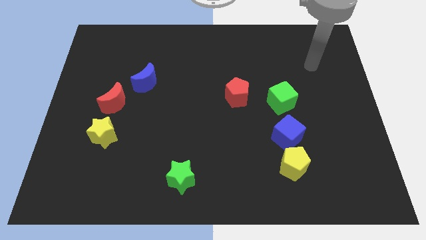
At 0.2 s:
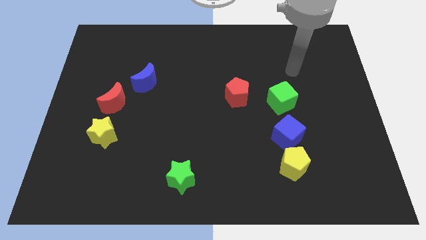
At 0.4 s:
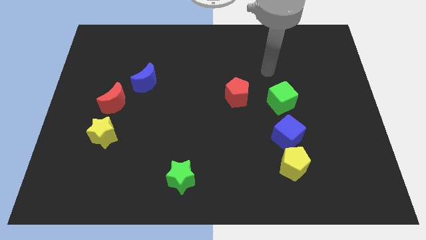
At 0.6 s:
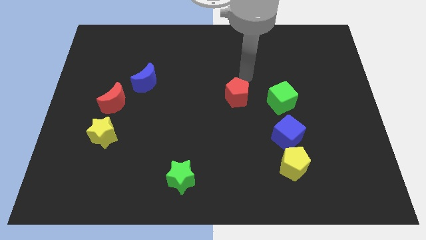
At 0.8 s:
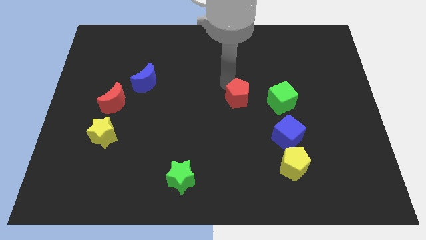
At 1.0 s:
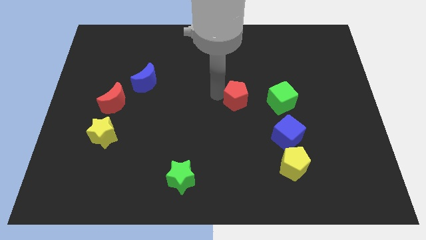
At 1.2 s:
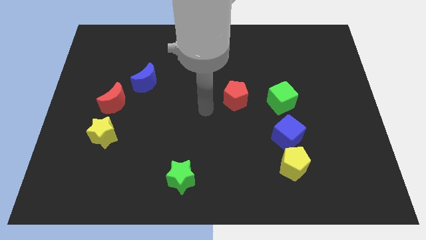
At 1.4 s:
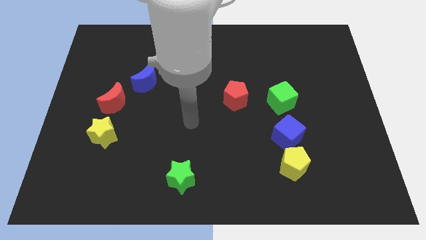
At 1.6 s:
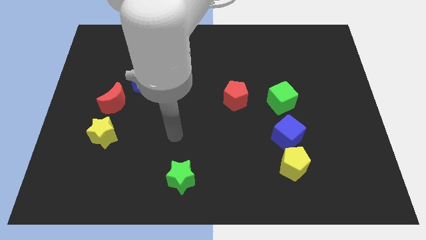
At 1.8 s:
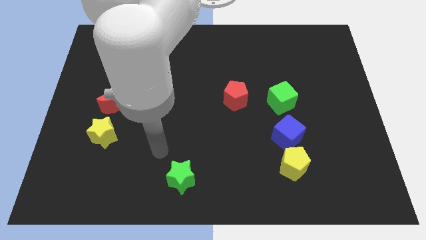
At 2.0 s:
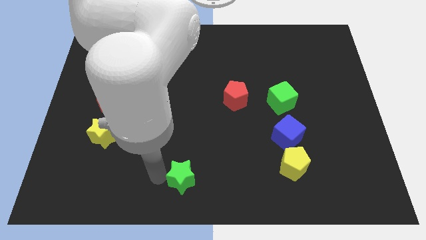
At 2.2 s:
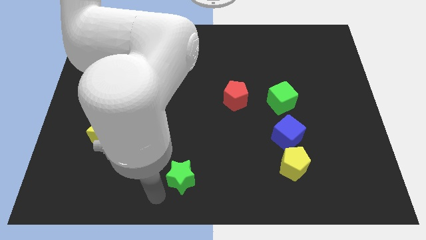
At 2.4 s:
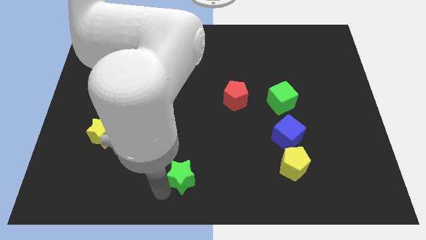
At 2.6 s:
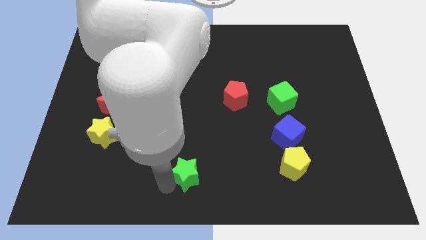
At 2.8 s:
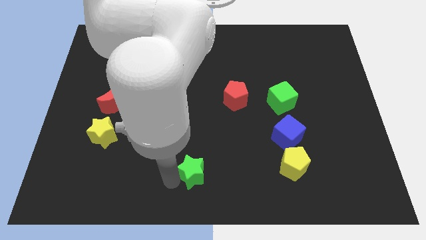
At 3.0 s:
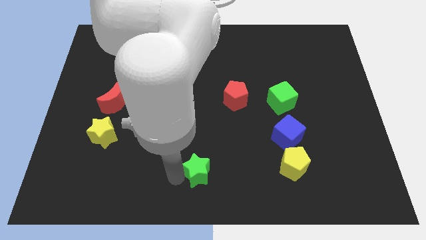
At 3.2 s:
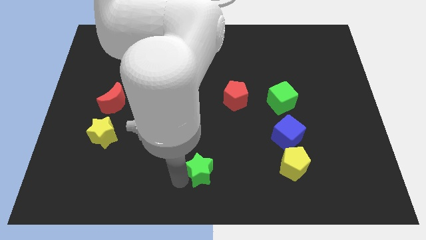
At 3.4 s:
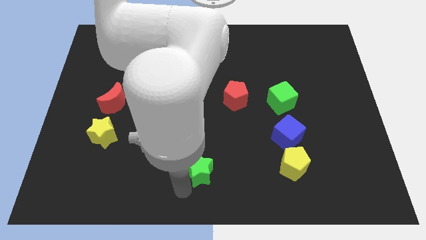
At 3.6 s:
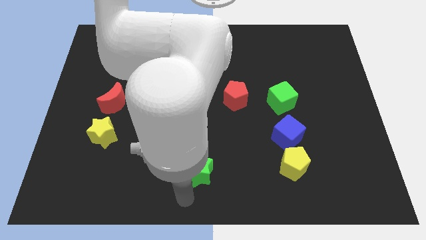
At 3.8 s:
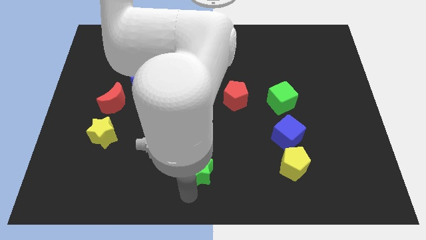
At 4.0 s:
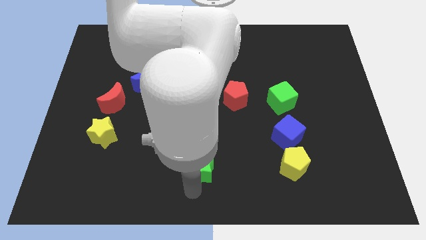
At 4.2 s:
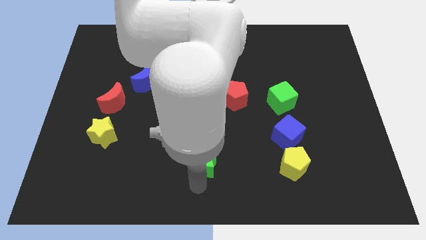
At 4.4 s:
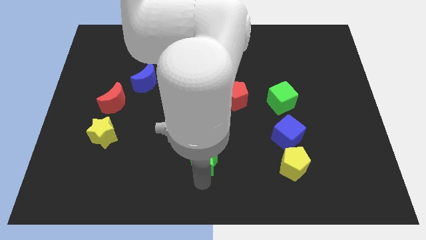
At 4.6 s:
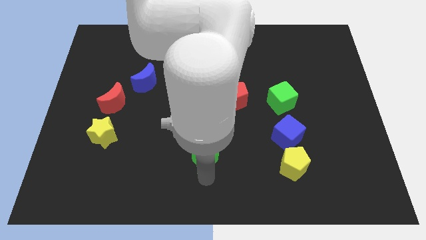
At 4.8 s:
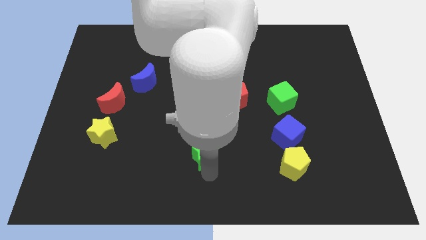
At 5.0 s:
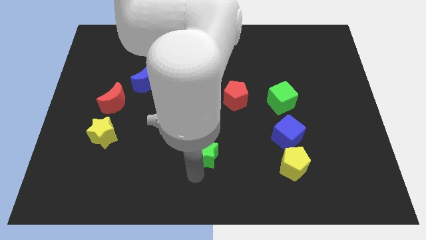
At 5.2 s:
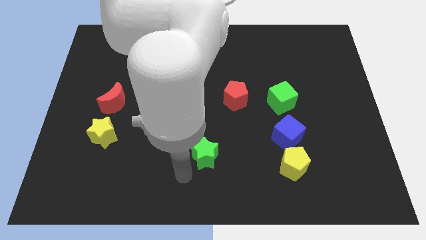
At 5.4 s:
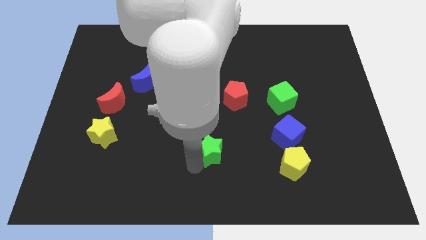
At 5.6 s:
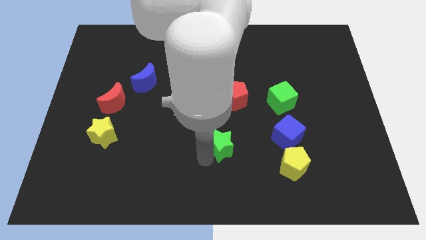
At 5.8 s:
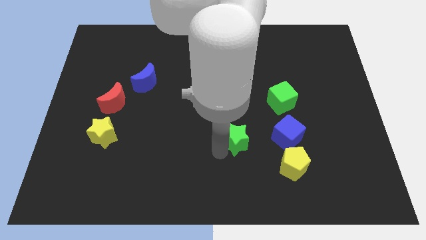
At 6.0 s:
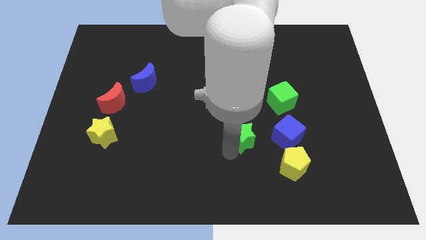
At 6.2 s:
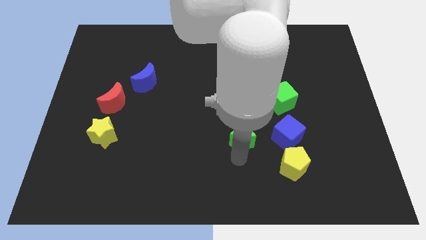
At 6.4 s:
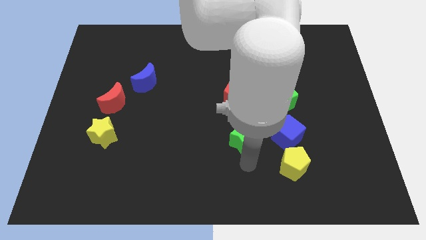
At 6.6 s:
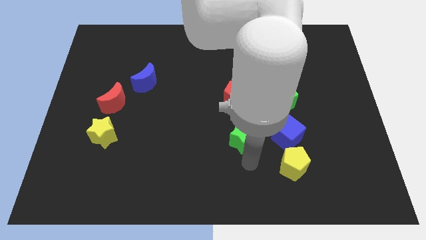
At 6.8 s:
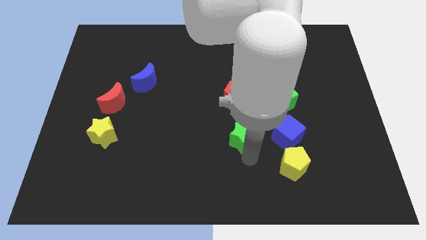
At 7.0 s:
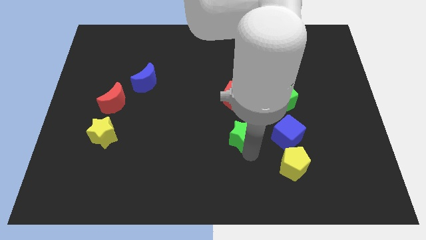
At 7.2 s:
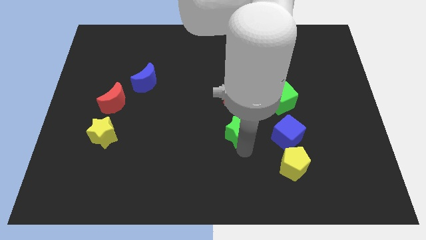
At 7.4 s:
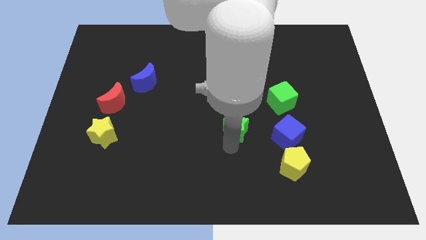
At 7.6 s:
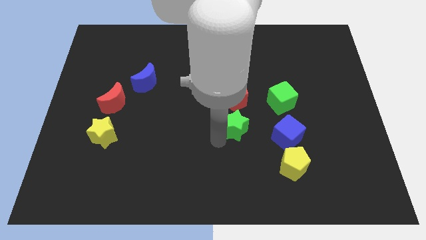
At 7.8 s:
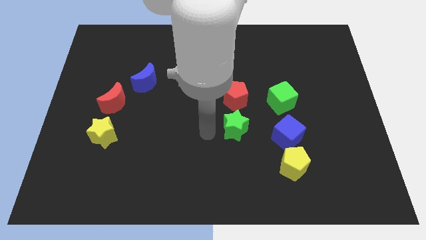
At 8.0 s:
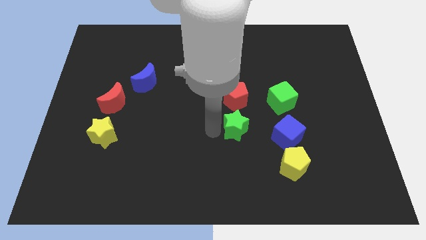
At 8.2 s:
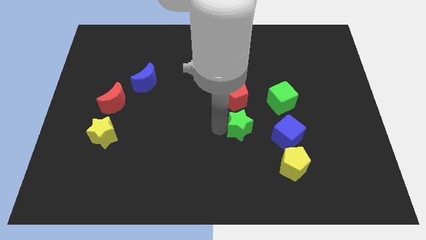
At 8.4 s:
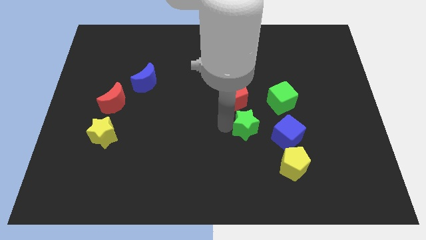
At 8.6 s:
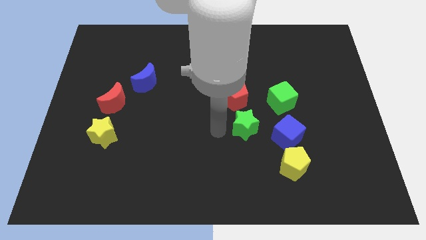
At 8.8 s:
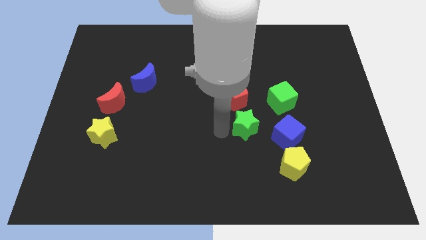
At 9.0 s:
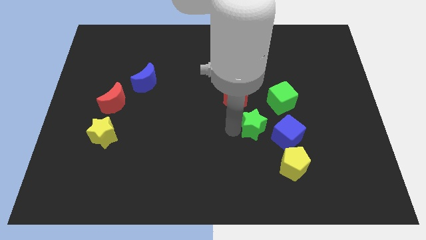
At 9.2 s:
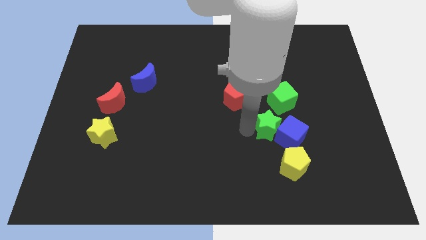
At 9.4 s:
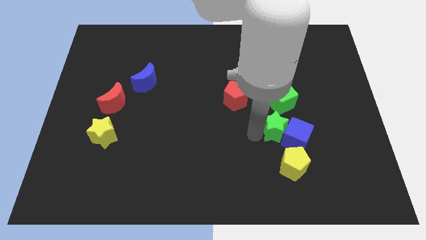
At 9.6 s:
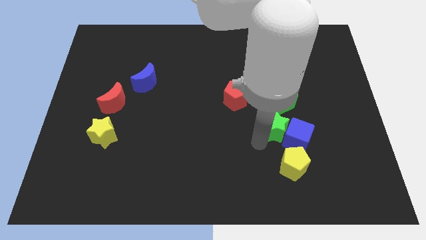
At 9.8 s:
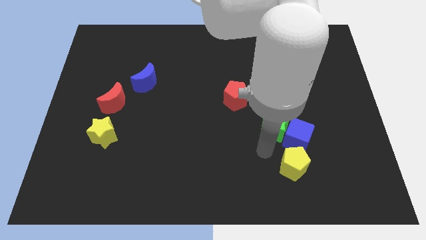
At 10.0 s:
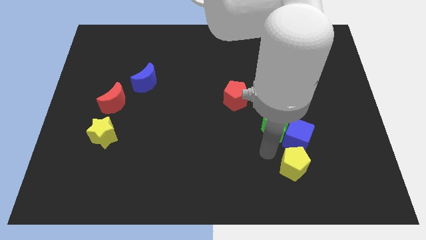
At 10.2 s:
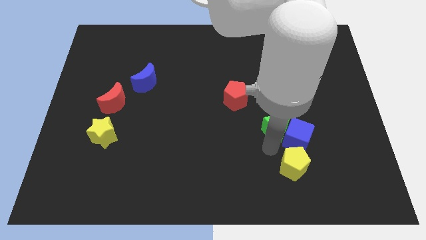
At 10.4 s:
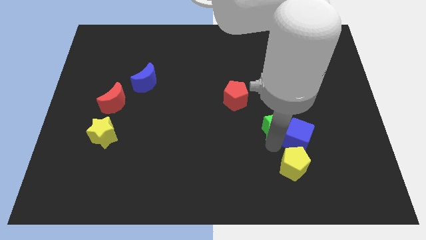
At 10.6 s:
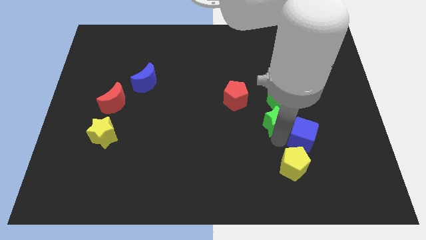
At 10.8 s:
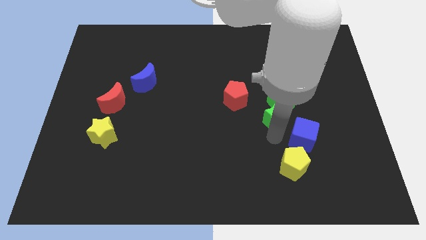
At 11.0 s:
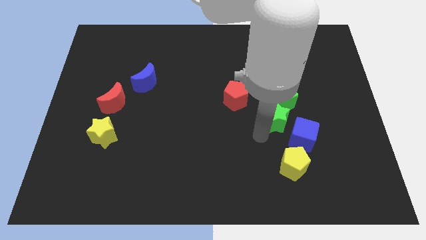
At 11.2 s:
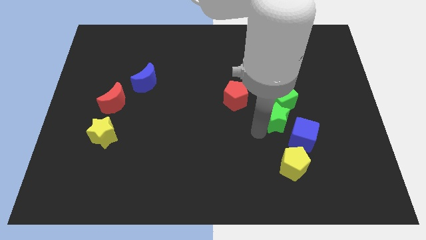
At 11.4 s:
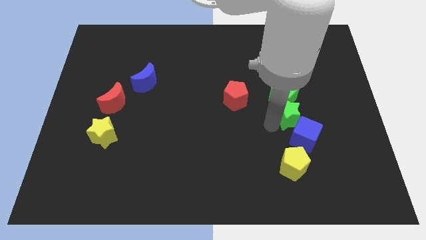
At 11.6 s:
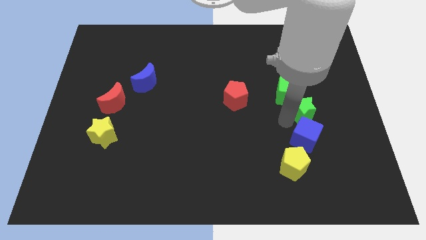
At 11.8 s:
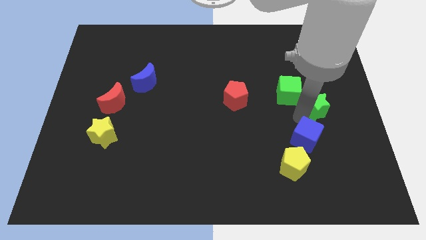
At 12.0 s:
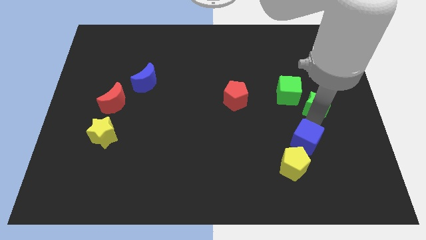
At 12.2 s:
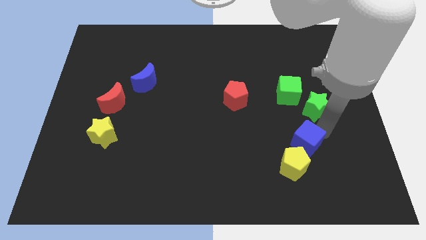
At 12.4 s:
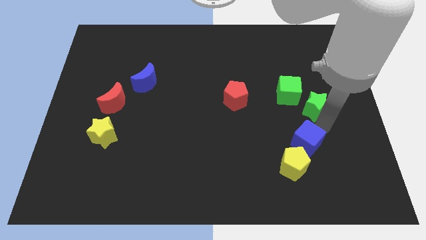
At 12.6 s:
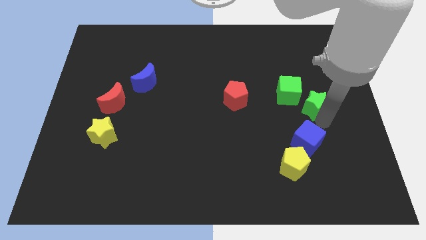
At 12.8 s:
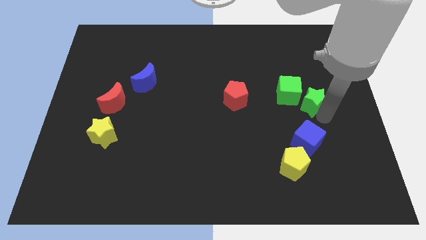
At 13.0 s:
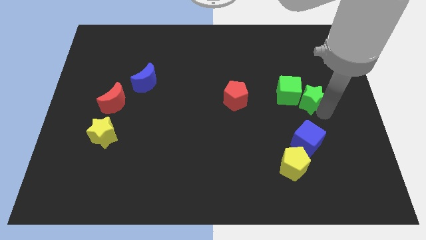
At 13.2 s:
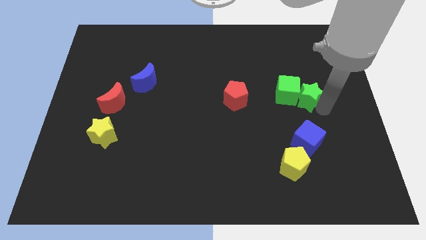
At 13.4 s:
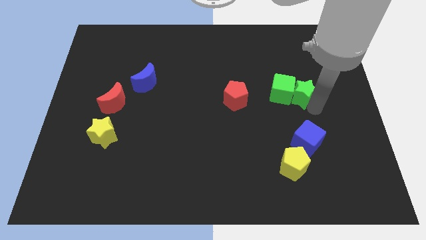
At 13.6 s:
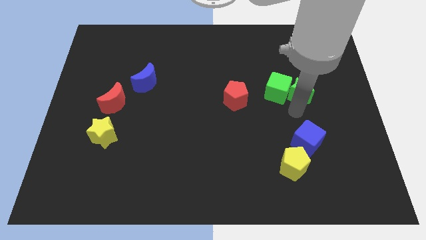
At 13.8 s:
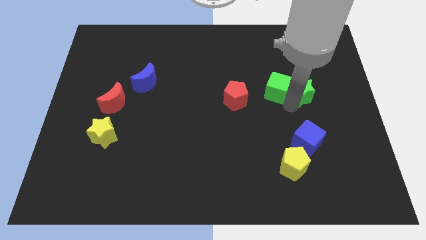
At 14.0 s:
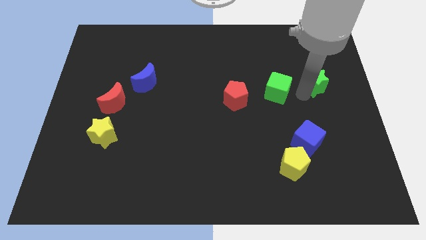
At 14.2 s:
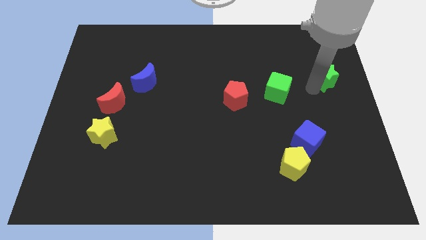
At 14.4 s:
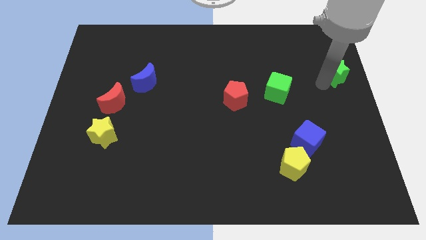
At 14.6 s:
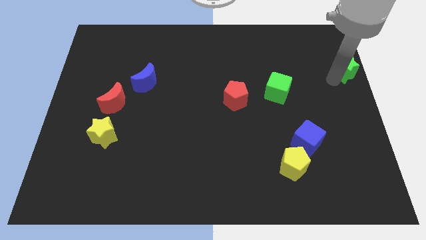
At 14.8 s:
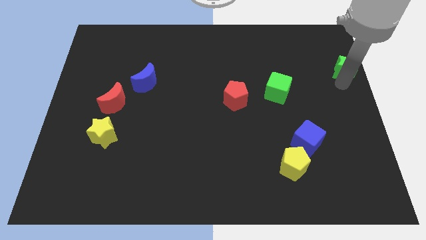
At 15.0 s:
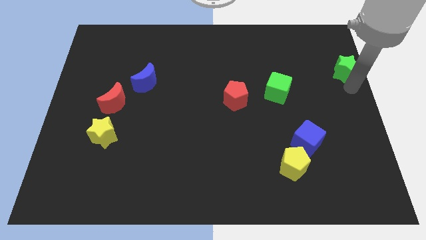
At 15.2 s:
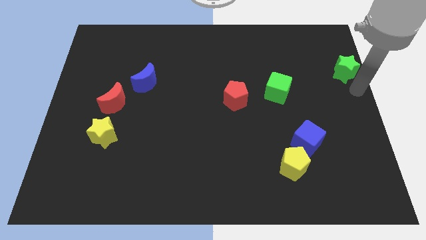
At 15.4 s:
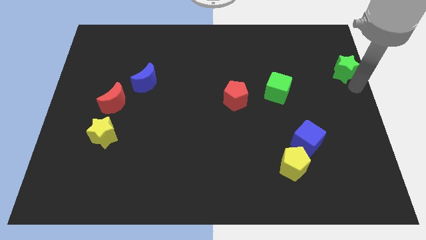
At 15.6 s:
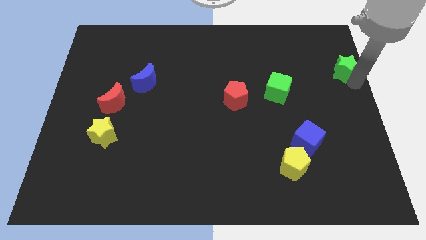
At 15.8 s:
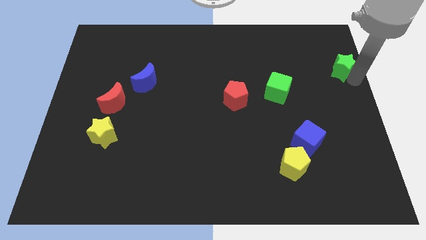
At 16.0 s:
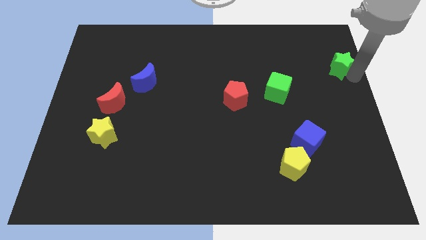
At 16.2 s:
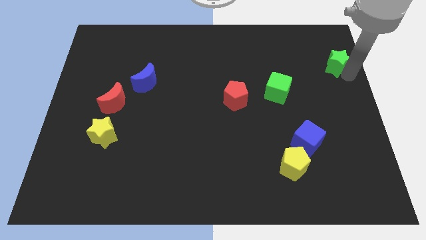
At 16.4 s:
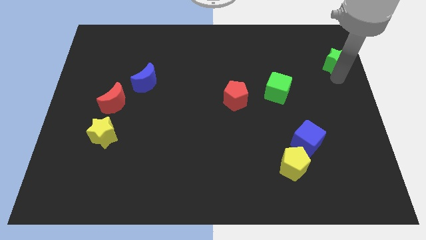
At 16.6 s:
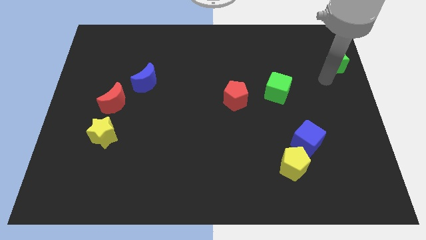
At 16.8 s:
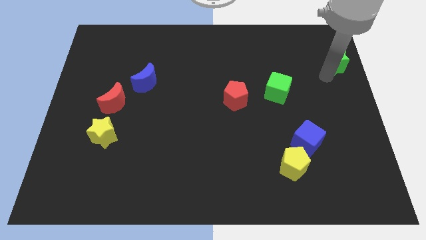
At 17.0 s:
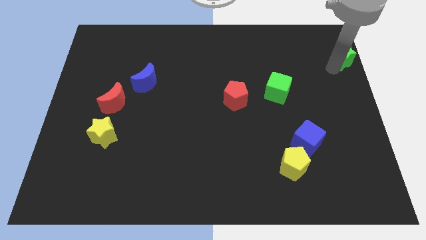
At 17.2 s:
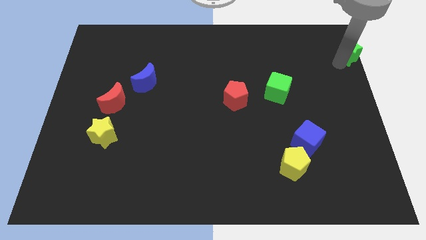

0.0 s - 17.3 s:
move the green star to the top right
